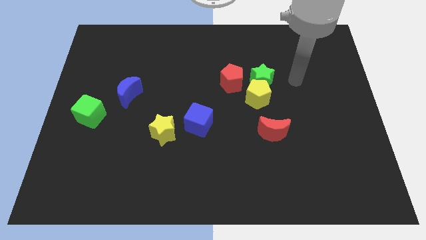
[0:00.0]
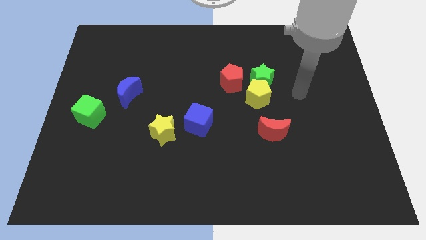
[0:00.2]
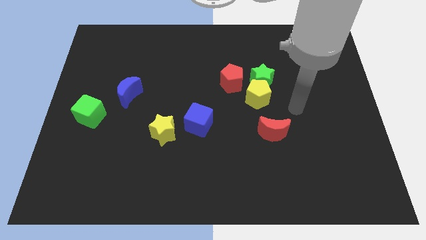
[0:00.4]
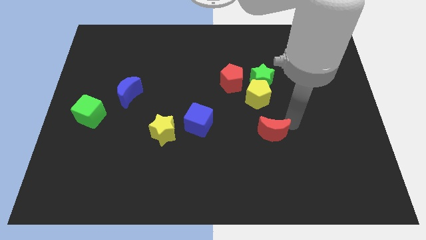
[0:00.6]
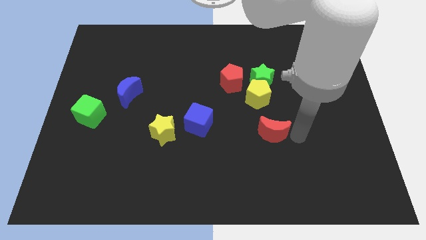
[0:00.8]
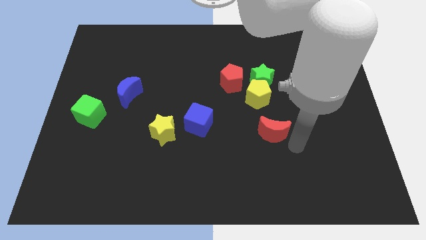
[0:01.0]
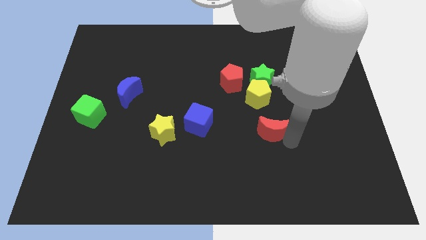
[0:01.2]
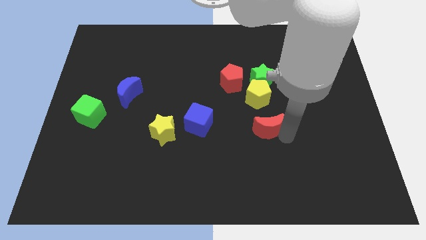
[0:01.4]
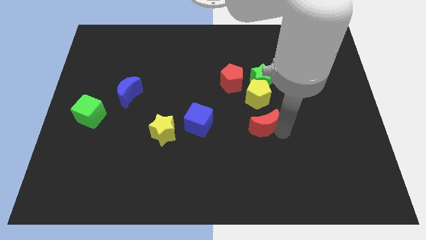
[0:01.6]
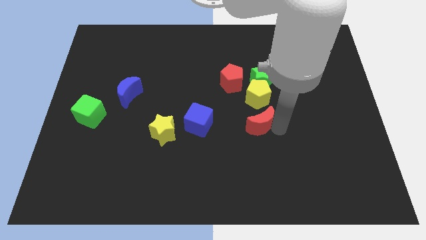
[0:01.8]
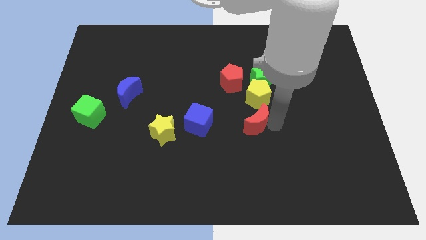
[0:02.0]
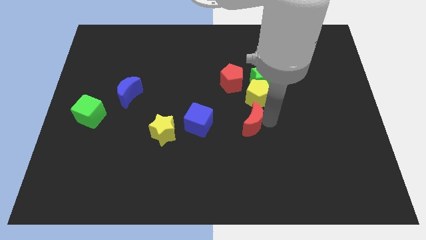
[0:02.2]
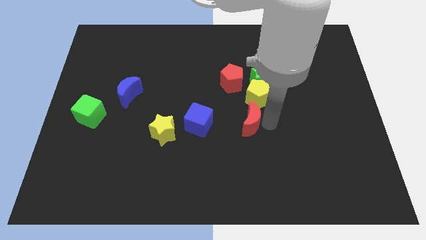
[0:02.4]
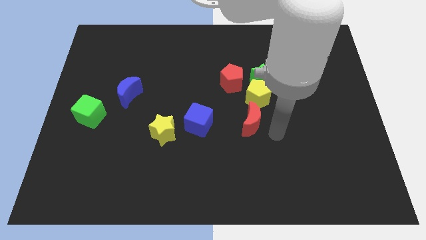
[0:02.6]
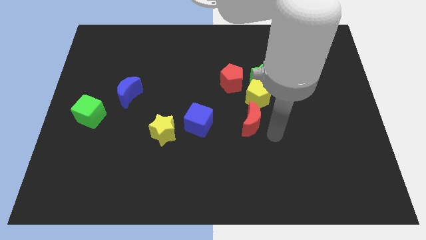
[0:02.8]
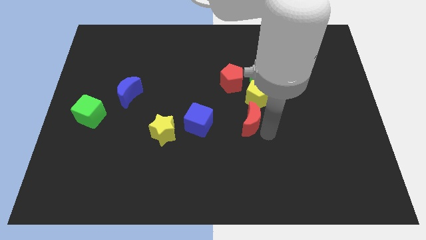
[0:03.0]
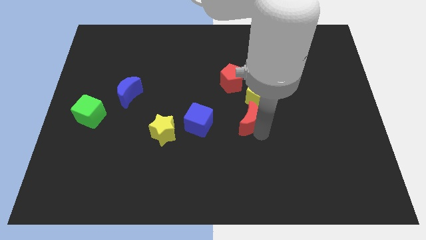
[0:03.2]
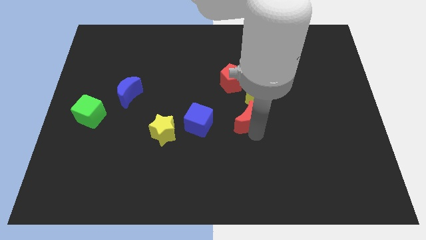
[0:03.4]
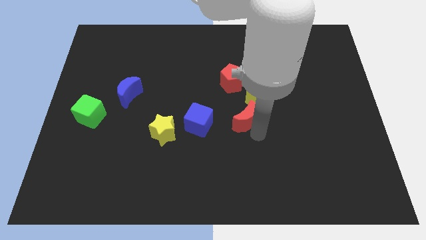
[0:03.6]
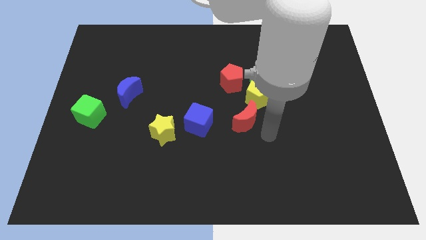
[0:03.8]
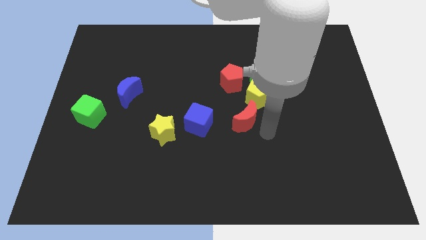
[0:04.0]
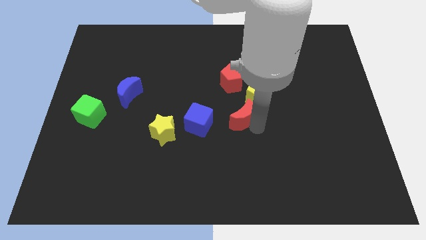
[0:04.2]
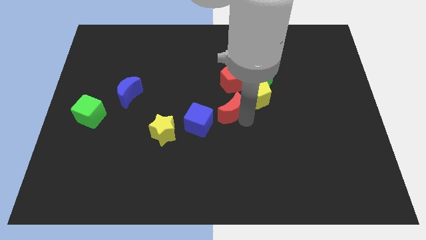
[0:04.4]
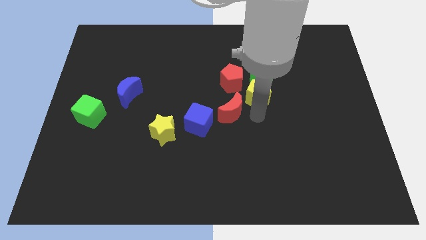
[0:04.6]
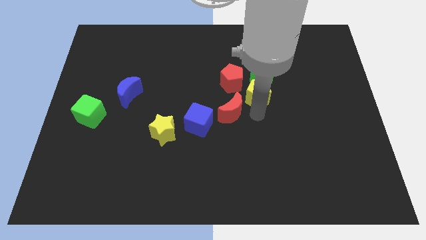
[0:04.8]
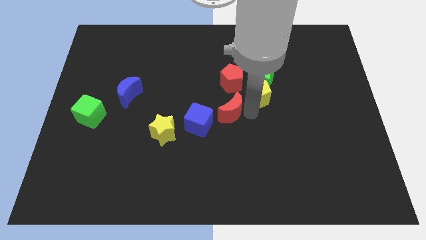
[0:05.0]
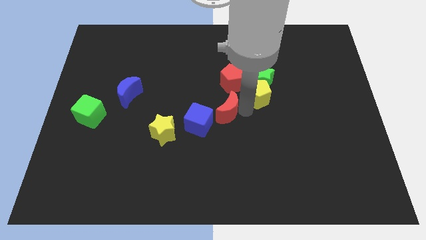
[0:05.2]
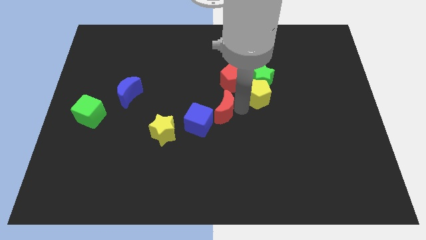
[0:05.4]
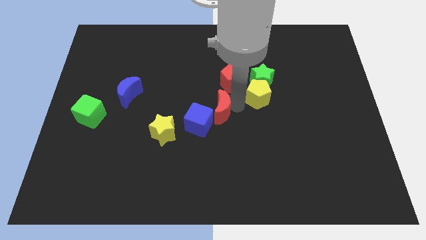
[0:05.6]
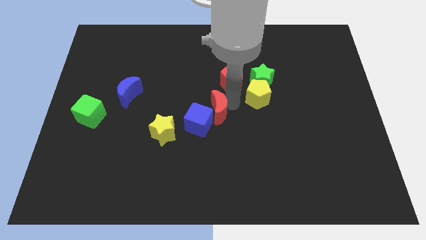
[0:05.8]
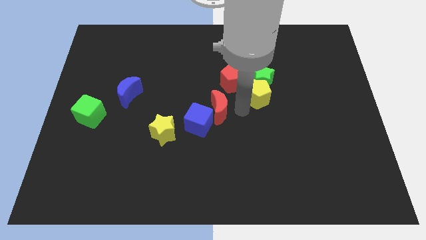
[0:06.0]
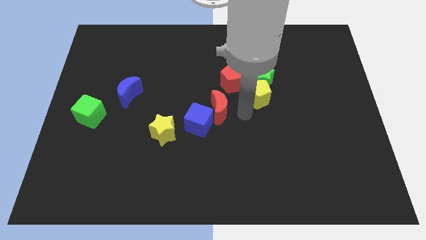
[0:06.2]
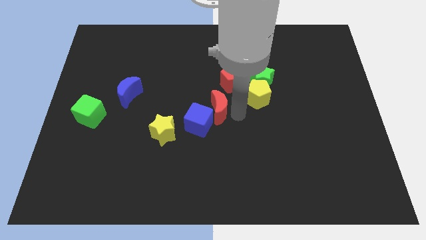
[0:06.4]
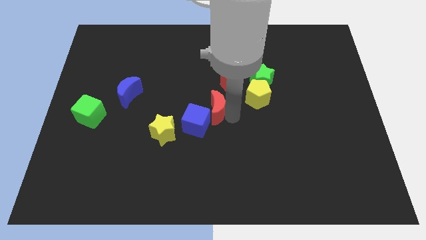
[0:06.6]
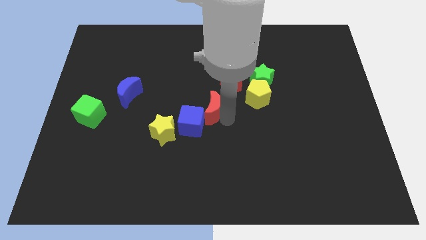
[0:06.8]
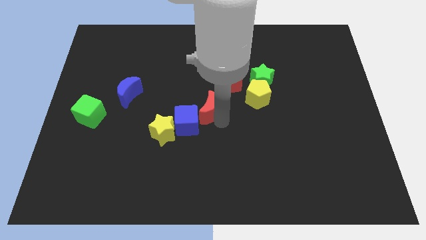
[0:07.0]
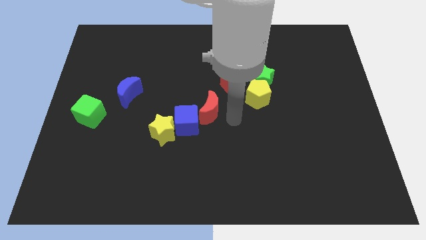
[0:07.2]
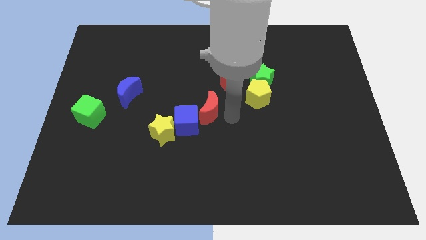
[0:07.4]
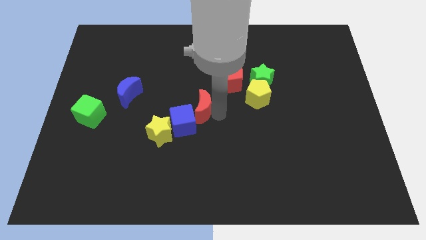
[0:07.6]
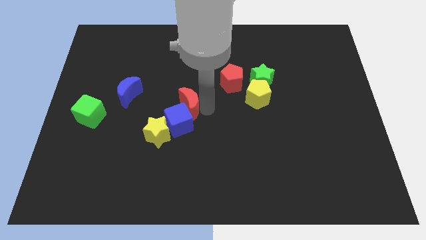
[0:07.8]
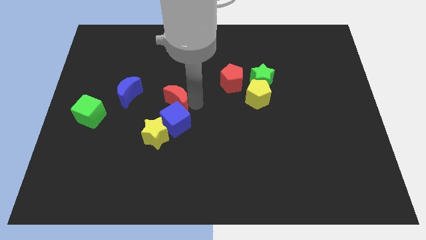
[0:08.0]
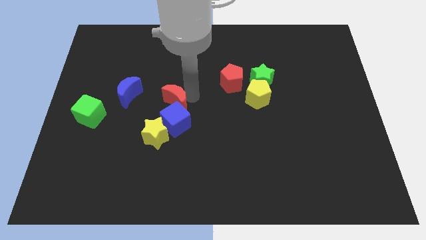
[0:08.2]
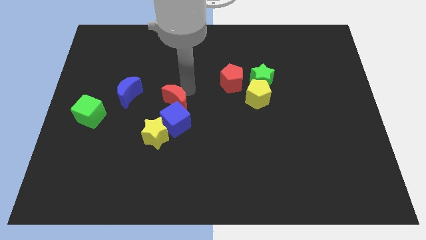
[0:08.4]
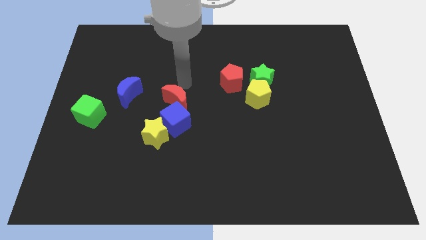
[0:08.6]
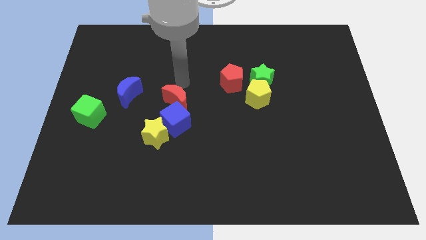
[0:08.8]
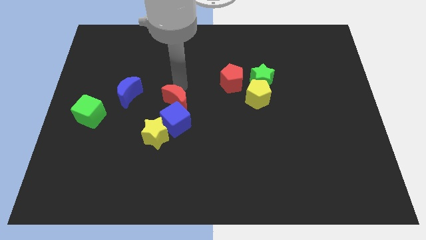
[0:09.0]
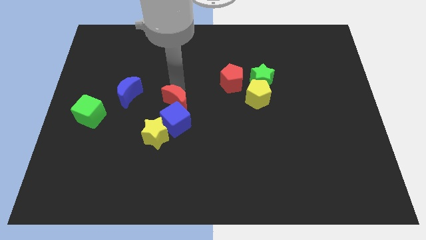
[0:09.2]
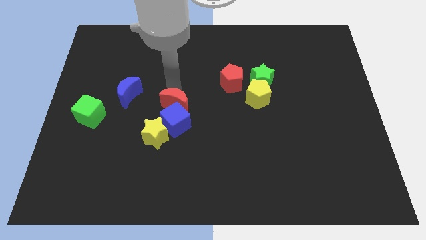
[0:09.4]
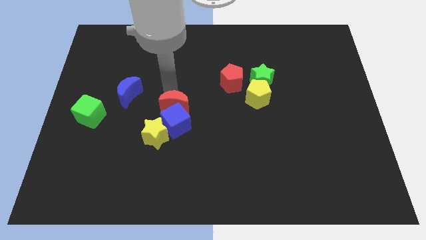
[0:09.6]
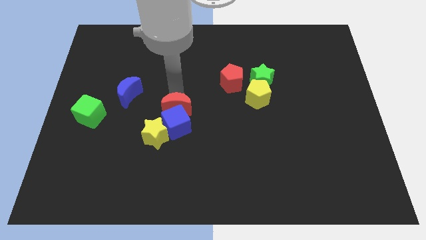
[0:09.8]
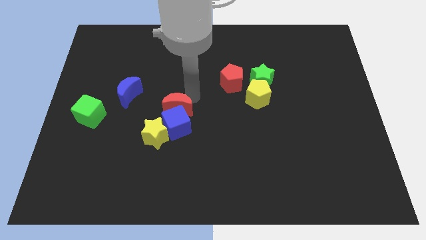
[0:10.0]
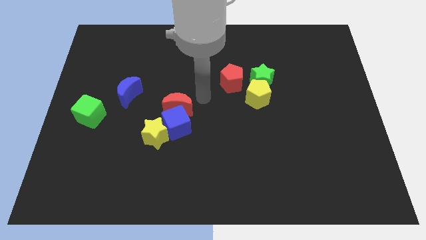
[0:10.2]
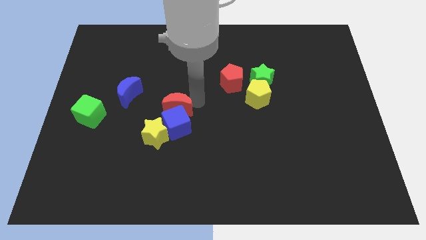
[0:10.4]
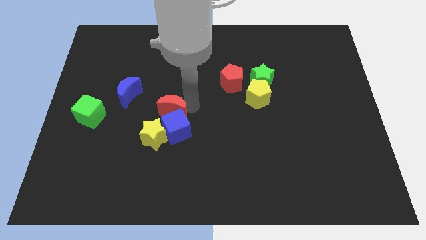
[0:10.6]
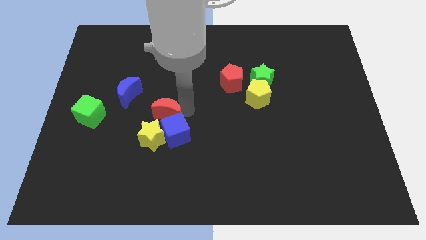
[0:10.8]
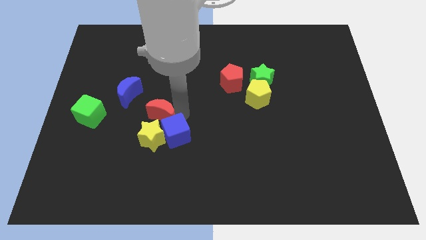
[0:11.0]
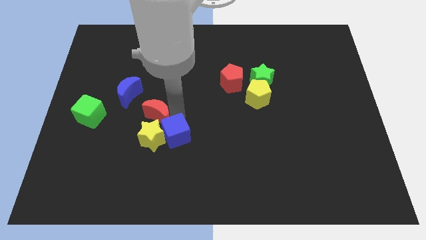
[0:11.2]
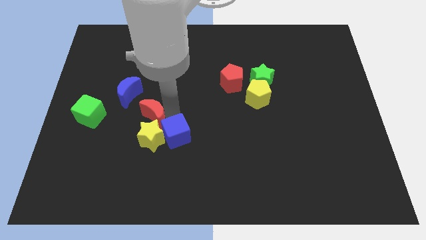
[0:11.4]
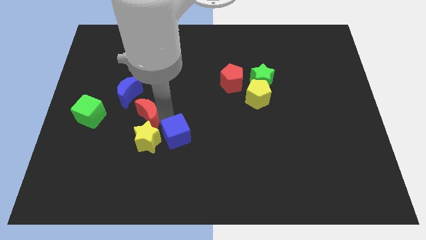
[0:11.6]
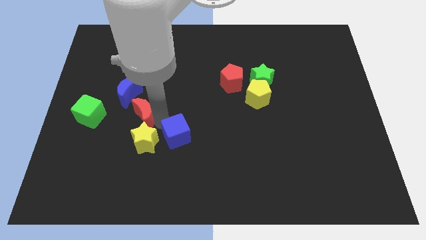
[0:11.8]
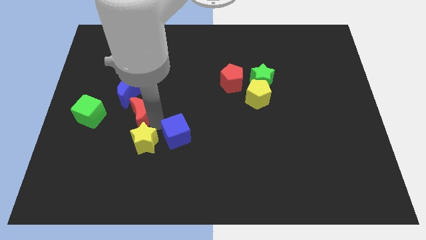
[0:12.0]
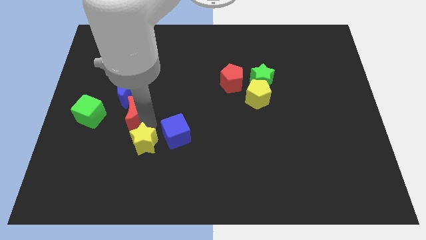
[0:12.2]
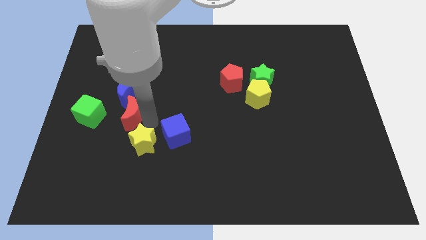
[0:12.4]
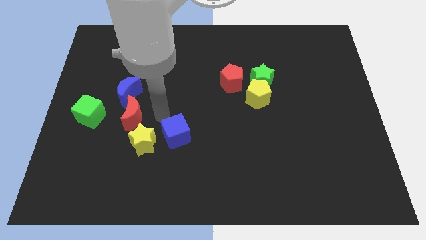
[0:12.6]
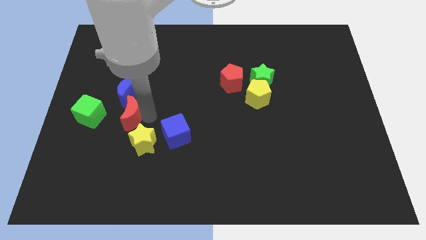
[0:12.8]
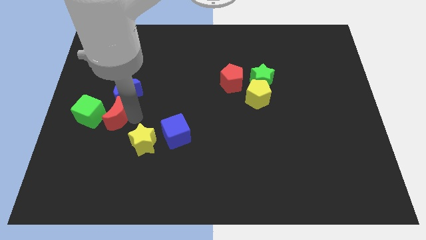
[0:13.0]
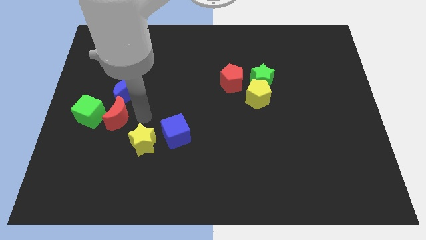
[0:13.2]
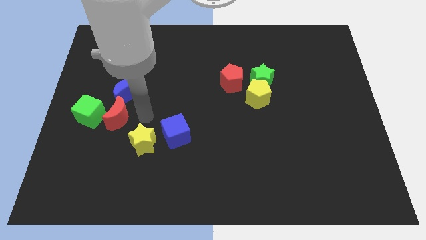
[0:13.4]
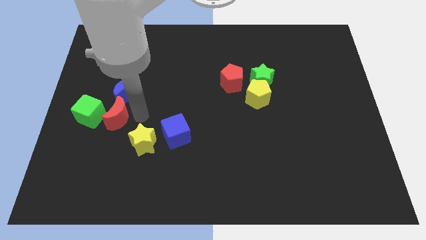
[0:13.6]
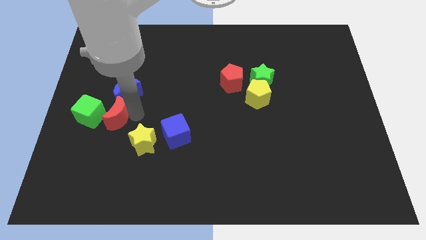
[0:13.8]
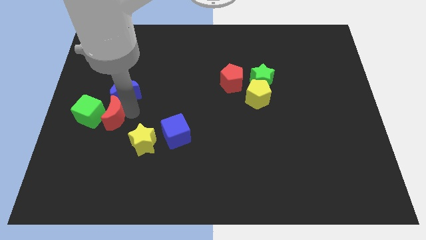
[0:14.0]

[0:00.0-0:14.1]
put the red moon towards the green cube

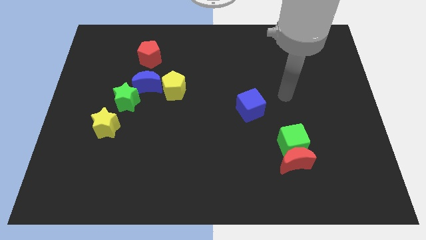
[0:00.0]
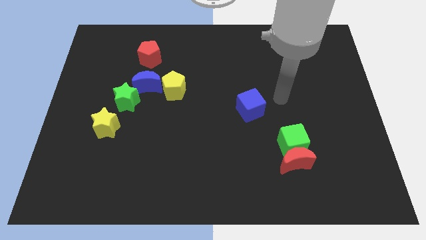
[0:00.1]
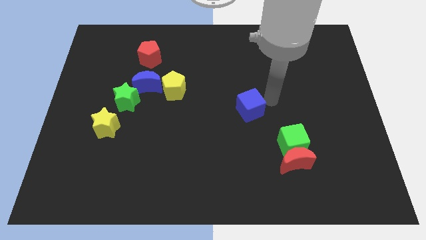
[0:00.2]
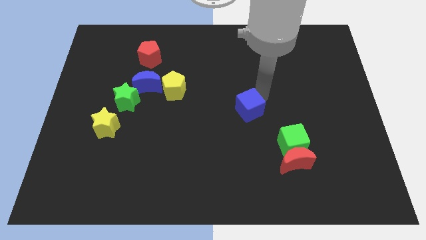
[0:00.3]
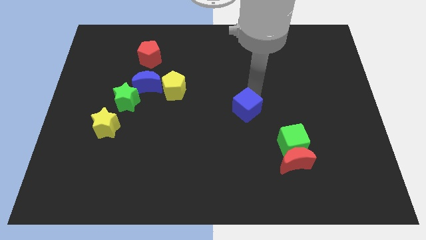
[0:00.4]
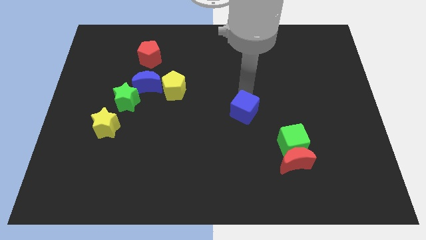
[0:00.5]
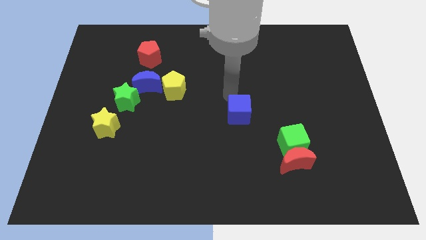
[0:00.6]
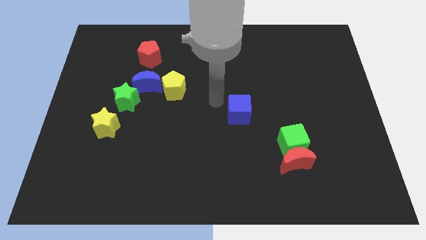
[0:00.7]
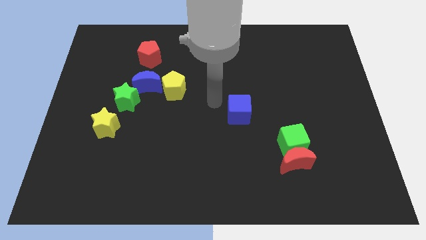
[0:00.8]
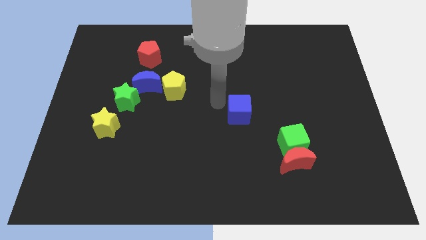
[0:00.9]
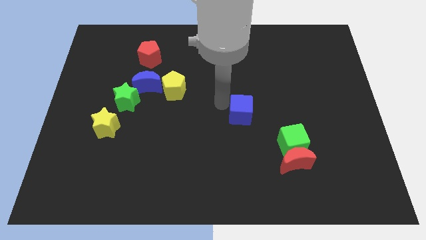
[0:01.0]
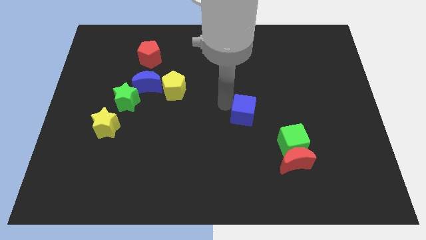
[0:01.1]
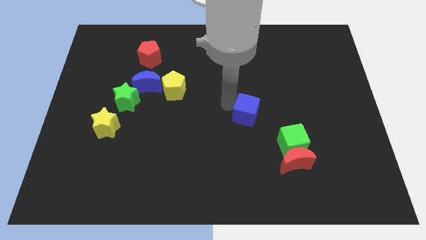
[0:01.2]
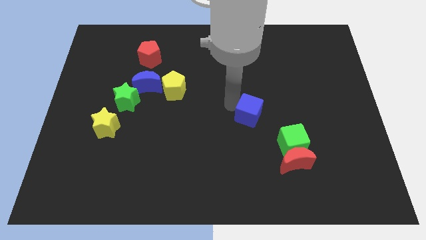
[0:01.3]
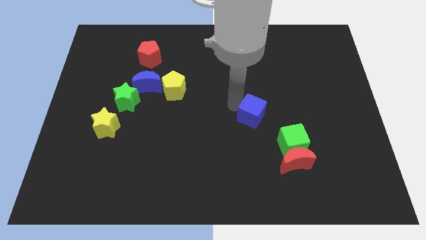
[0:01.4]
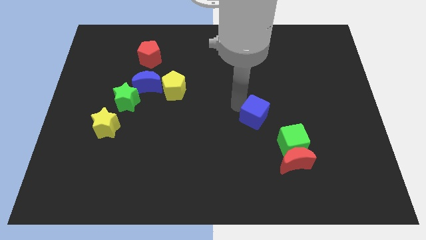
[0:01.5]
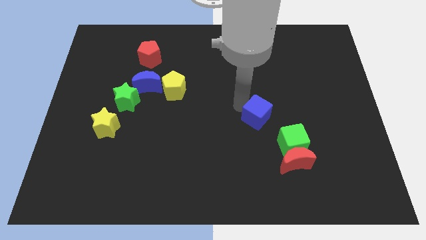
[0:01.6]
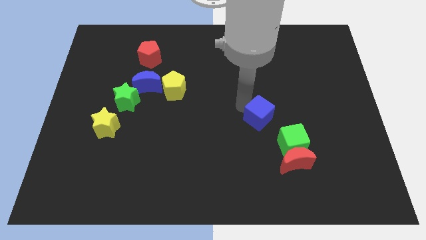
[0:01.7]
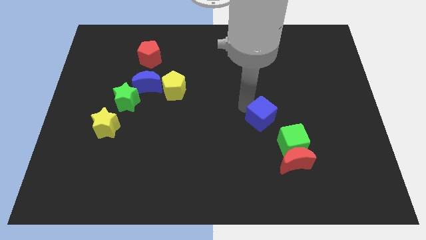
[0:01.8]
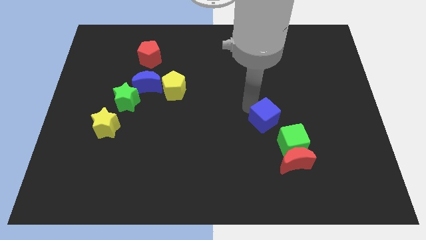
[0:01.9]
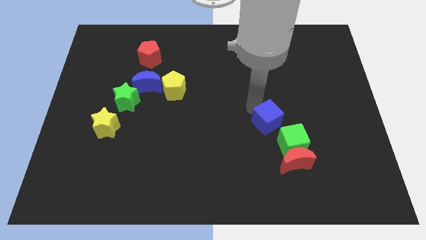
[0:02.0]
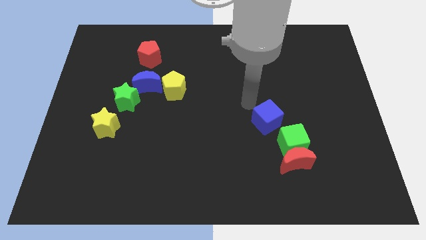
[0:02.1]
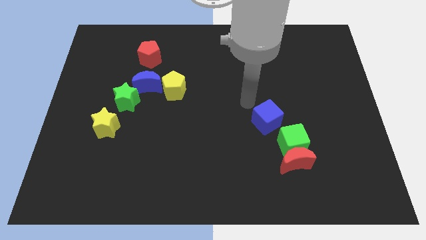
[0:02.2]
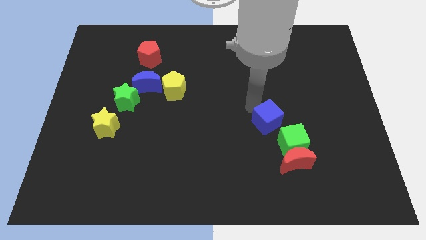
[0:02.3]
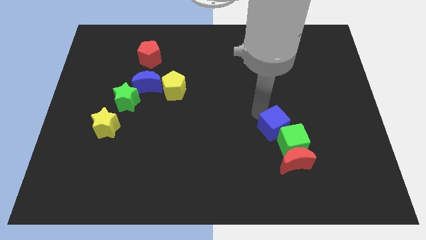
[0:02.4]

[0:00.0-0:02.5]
slide the blue cube towards the green cube
